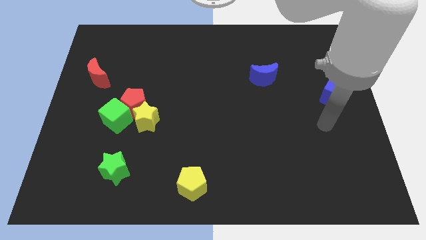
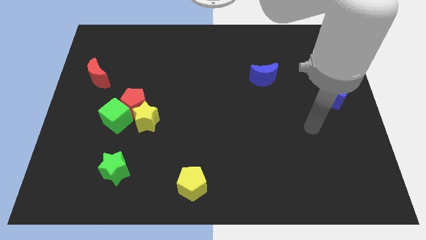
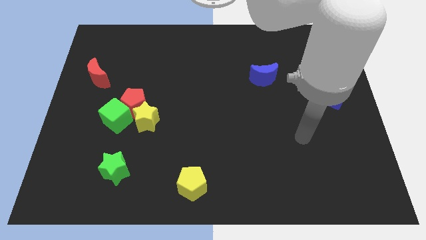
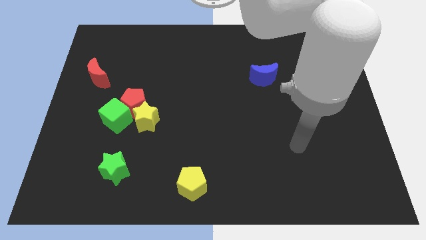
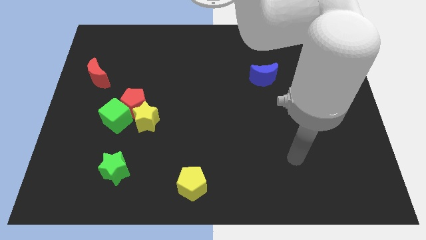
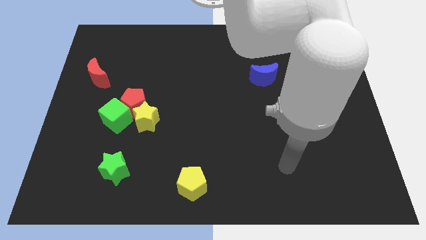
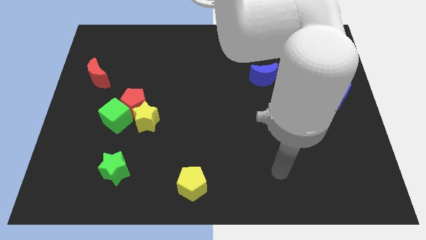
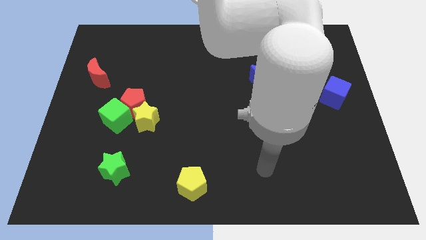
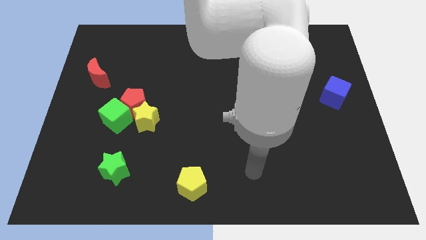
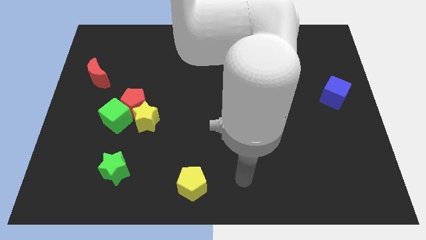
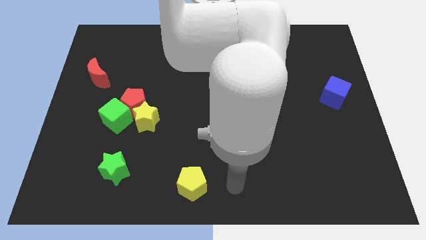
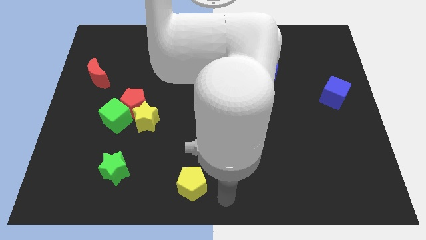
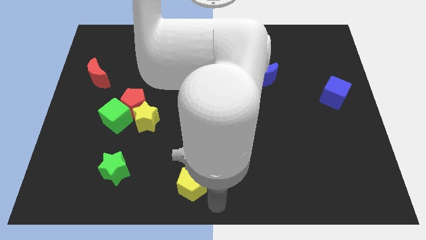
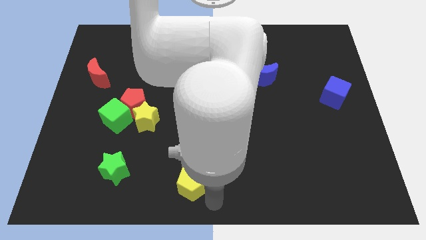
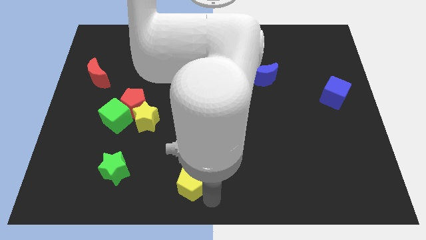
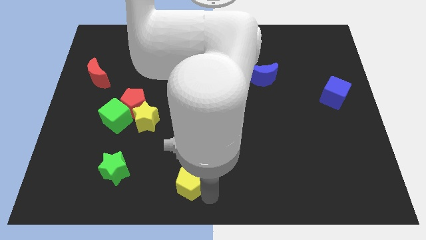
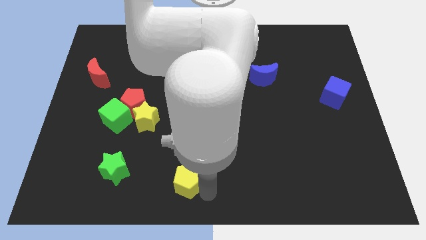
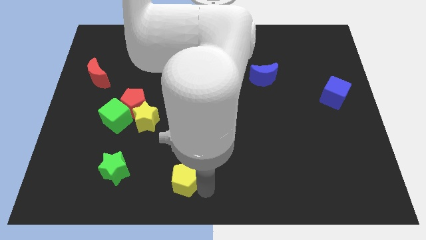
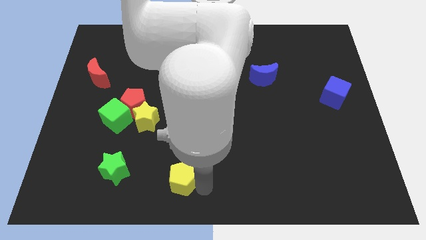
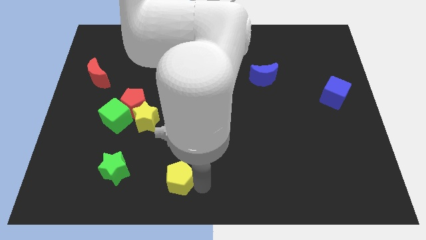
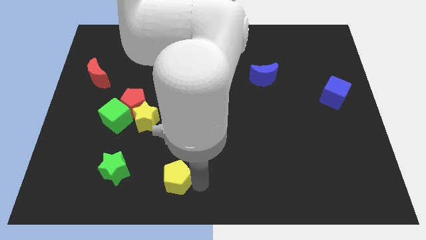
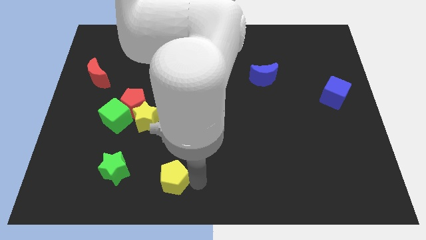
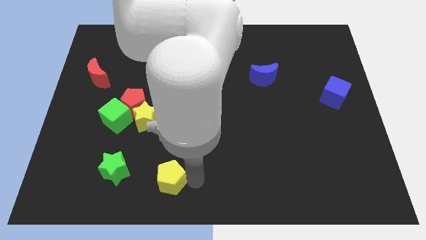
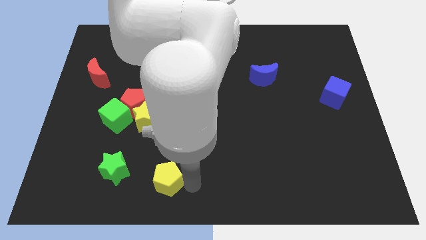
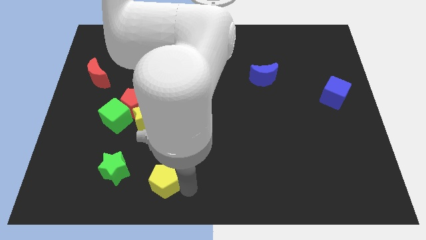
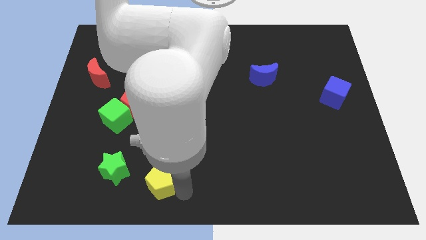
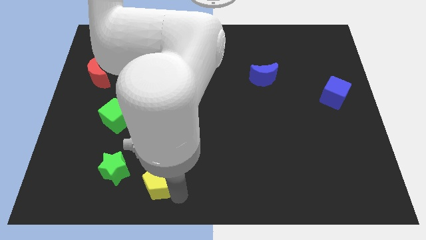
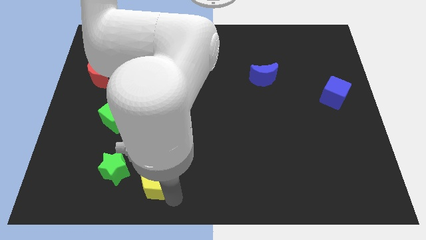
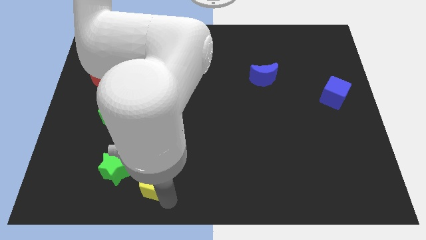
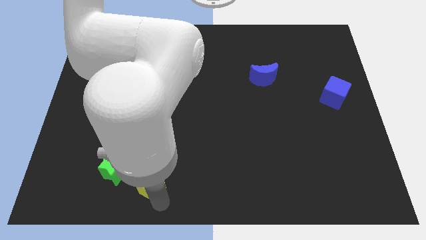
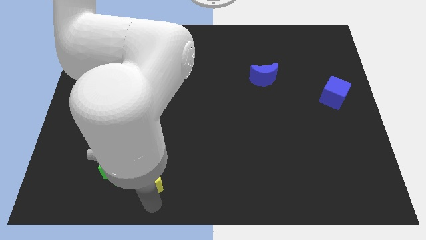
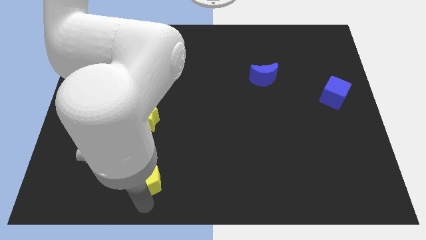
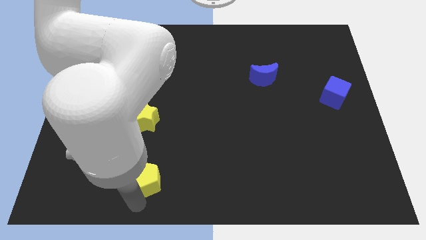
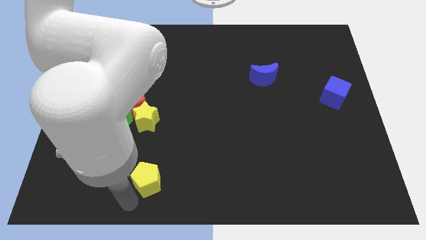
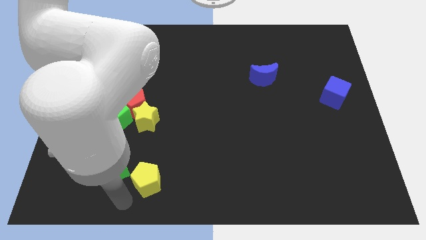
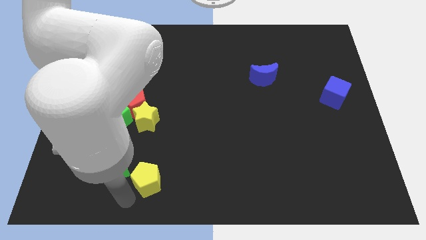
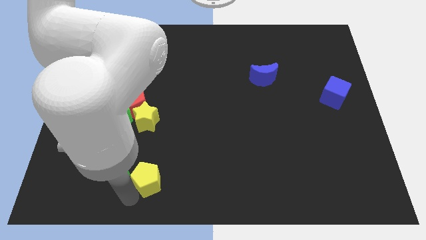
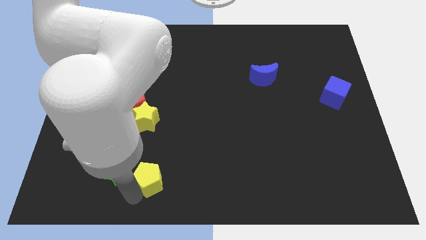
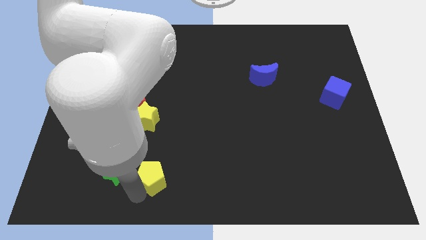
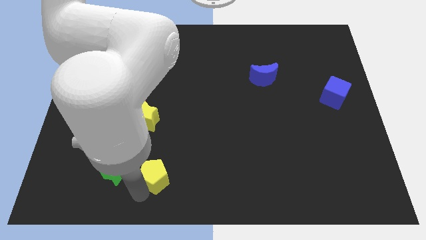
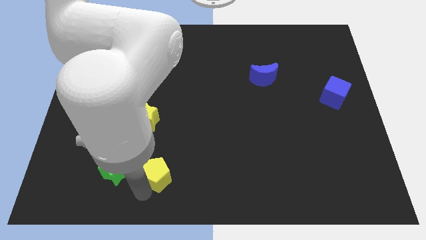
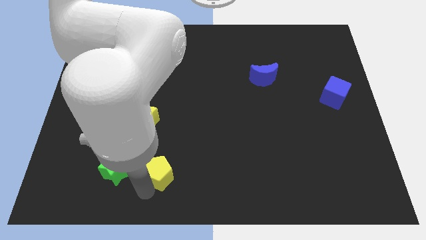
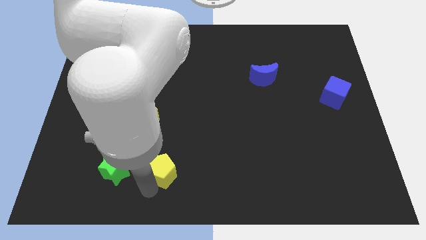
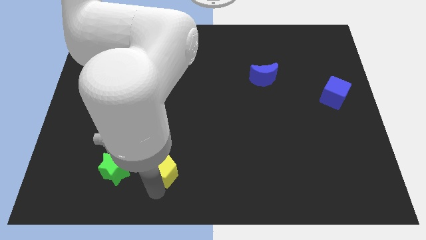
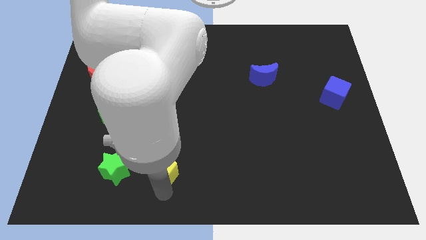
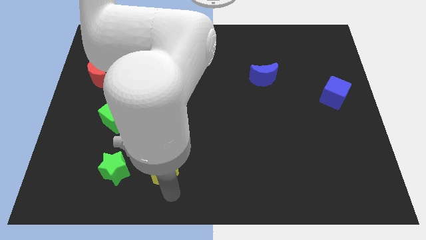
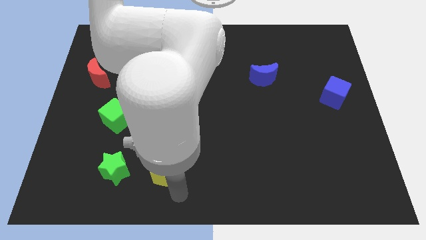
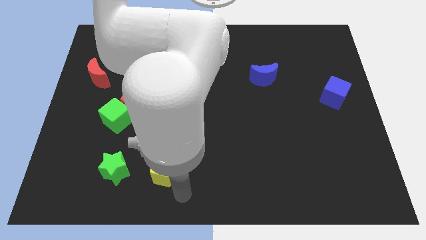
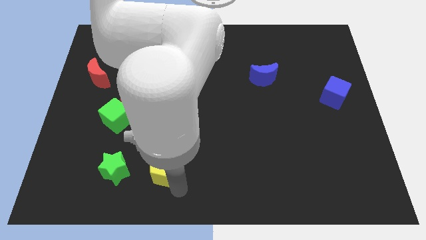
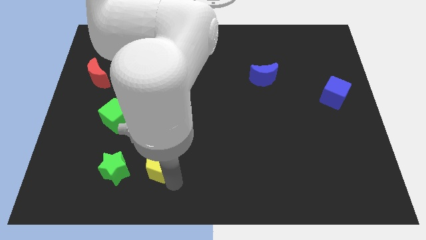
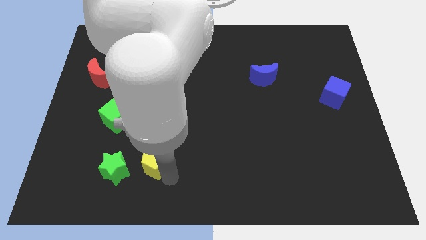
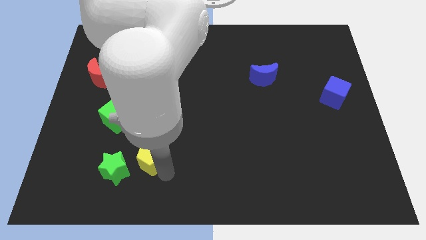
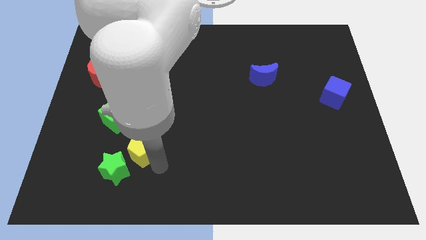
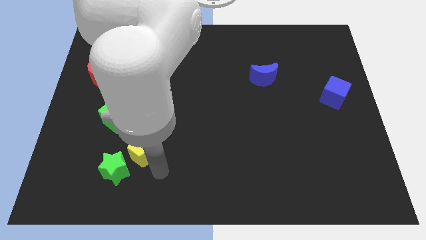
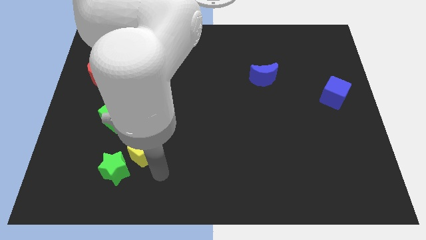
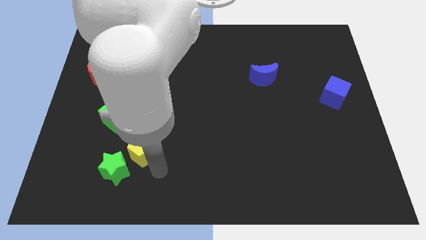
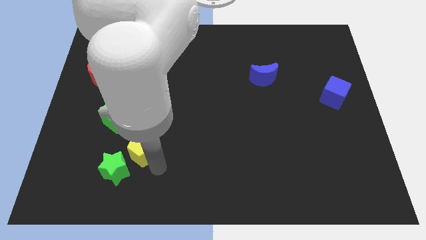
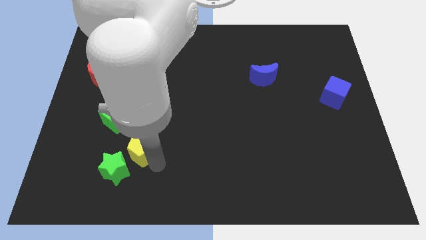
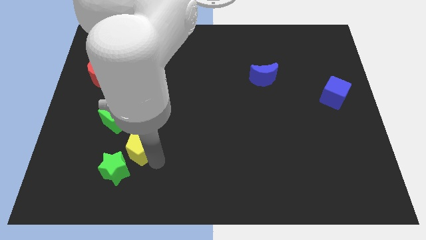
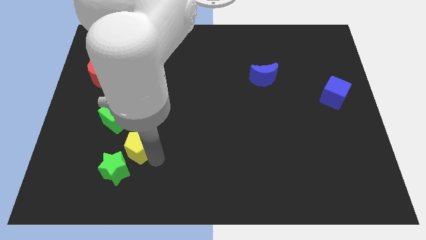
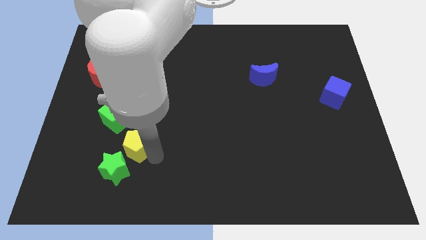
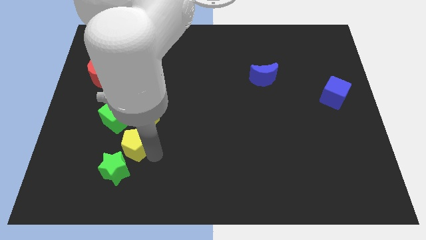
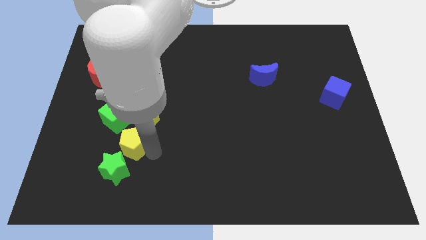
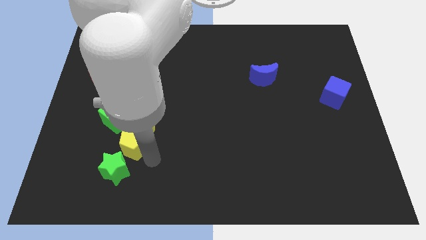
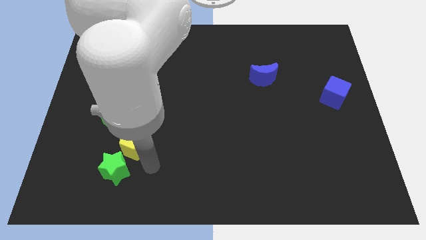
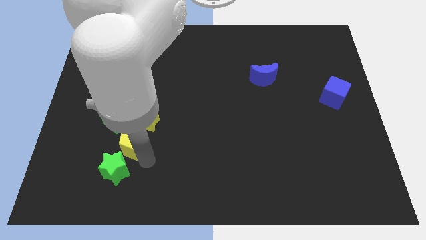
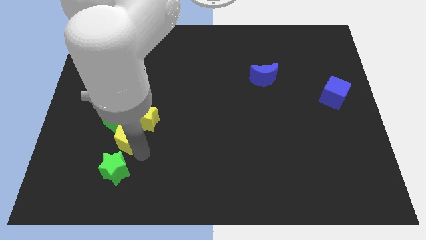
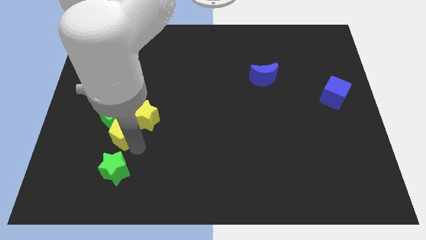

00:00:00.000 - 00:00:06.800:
move the yellow pentagon close to the green cube
